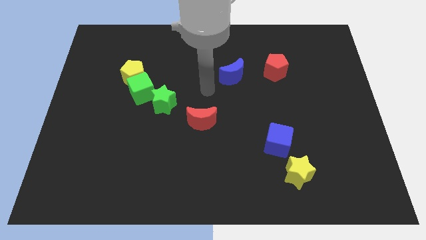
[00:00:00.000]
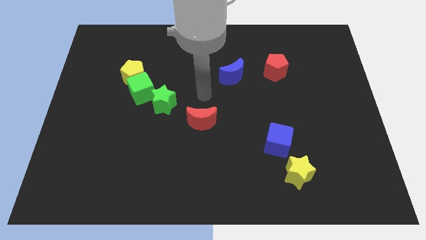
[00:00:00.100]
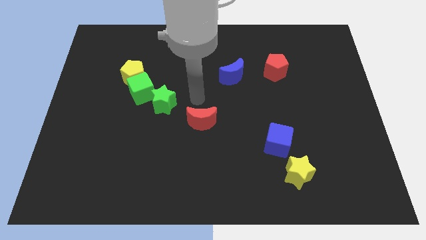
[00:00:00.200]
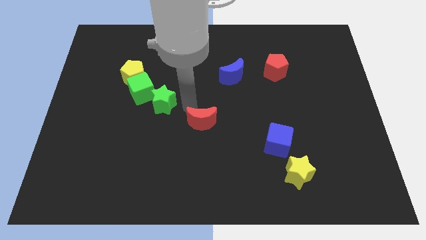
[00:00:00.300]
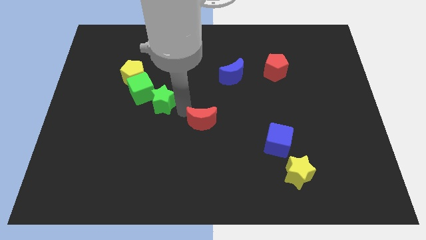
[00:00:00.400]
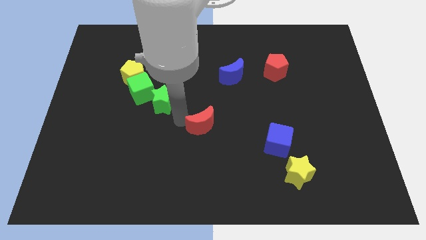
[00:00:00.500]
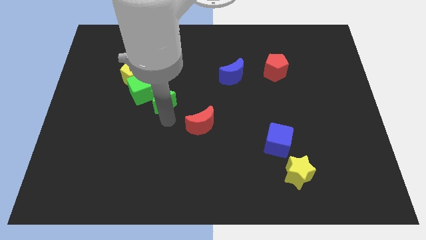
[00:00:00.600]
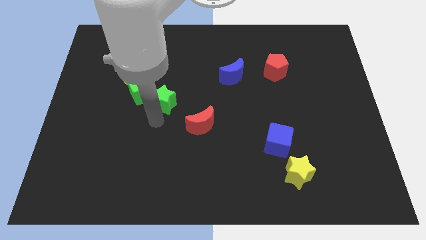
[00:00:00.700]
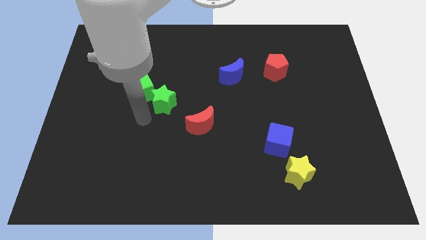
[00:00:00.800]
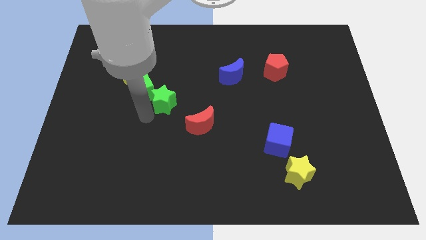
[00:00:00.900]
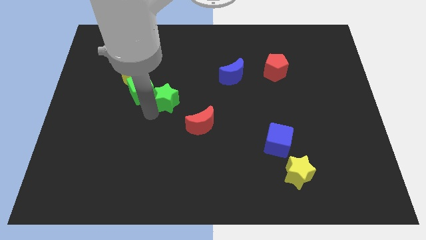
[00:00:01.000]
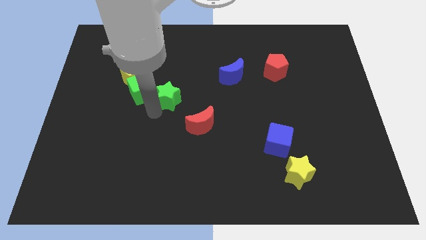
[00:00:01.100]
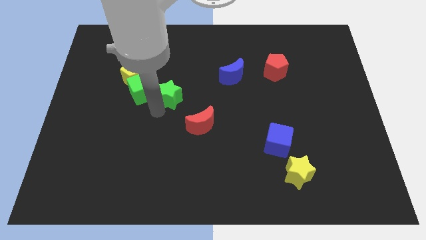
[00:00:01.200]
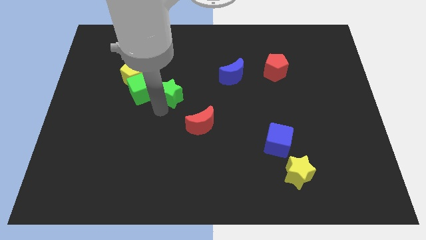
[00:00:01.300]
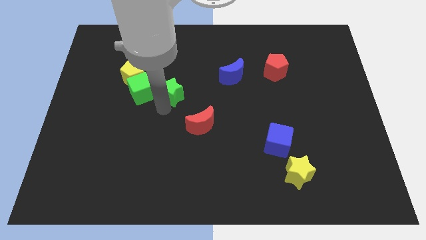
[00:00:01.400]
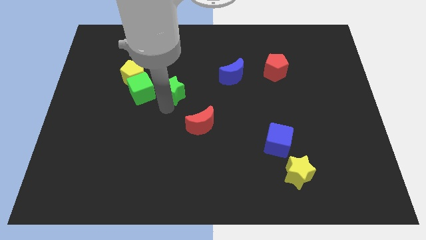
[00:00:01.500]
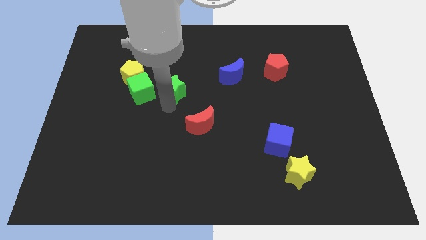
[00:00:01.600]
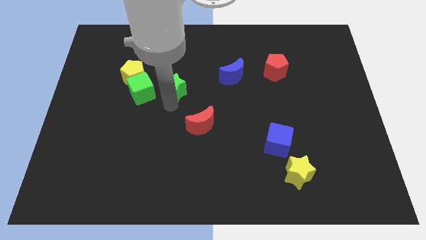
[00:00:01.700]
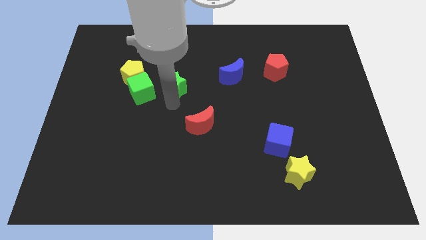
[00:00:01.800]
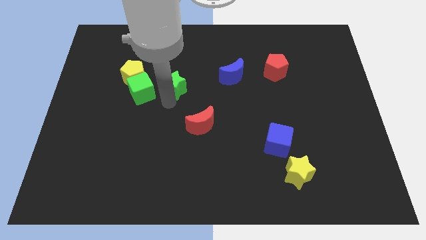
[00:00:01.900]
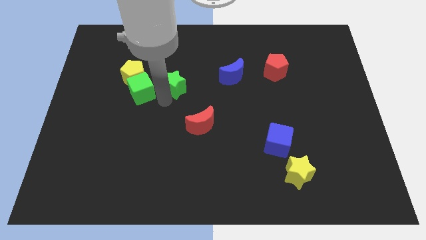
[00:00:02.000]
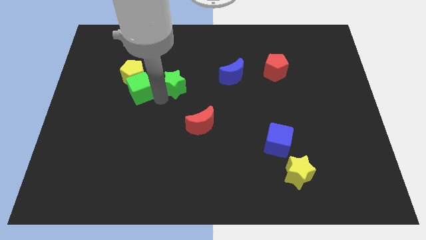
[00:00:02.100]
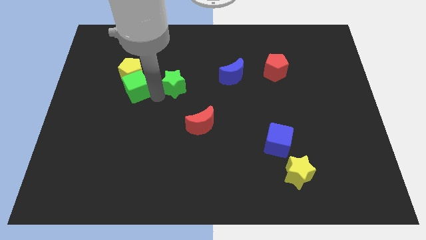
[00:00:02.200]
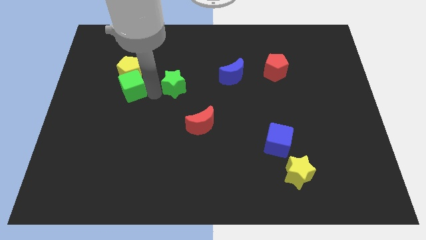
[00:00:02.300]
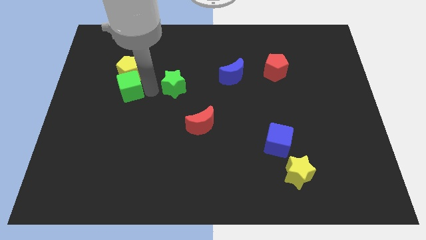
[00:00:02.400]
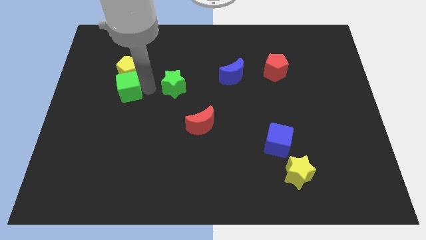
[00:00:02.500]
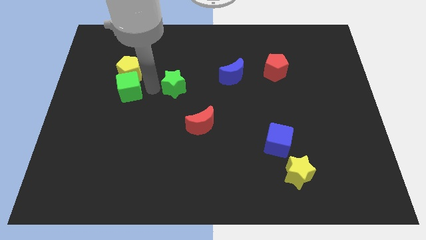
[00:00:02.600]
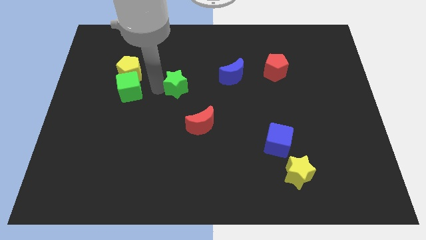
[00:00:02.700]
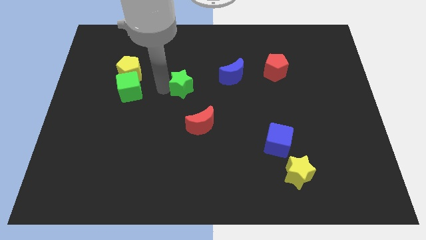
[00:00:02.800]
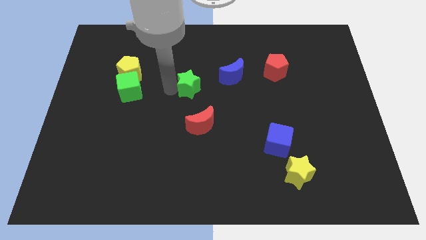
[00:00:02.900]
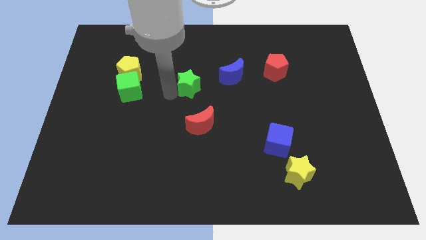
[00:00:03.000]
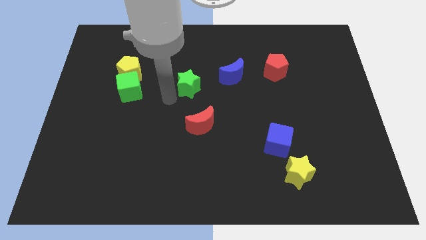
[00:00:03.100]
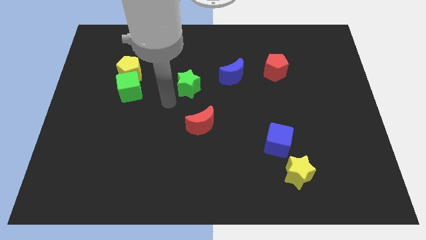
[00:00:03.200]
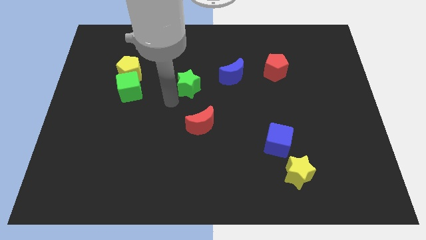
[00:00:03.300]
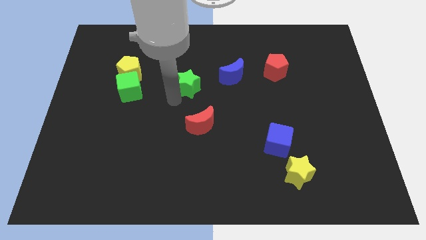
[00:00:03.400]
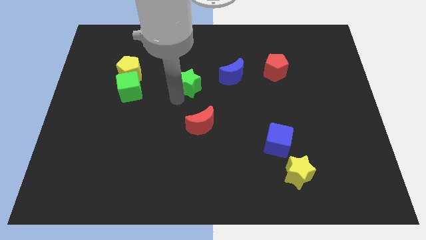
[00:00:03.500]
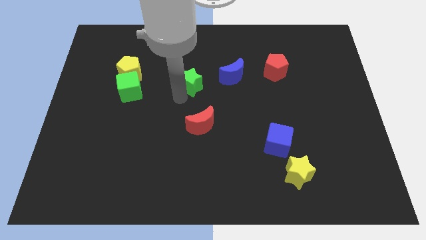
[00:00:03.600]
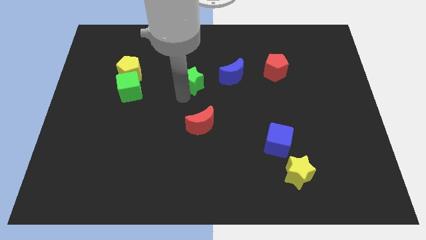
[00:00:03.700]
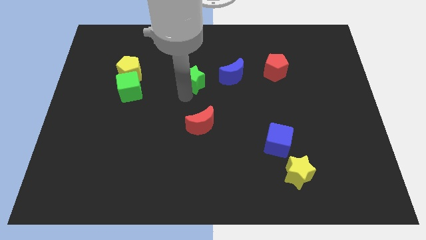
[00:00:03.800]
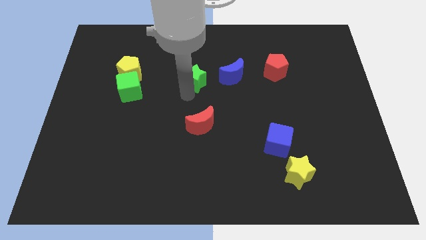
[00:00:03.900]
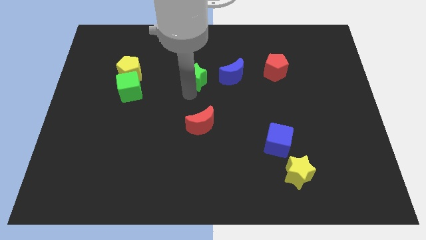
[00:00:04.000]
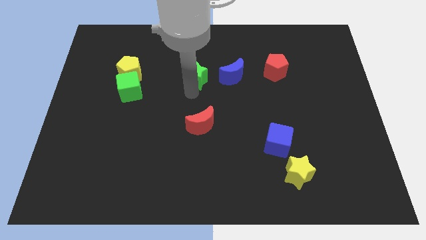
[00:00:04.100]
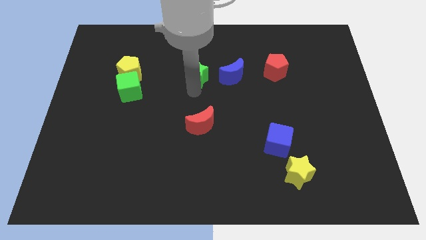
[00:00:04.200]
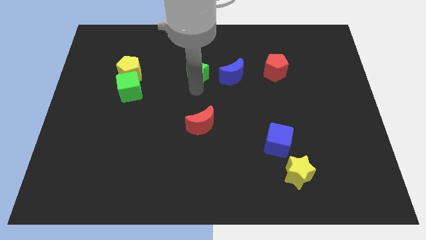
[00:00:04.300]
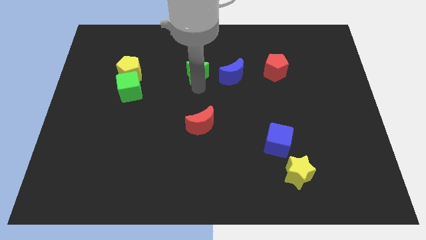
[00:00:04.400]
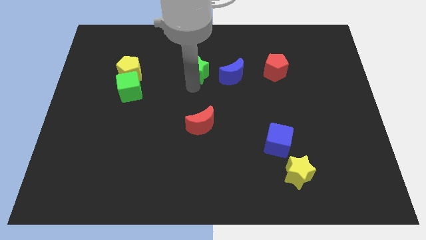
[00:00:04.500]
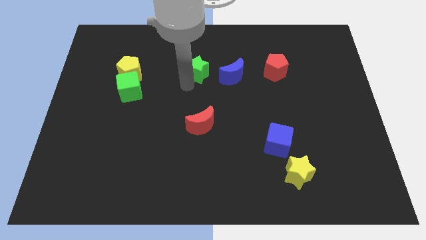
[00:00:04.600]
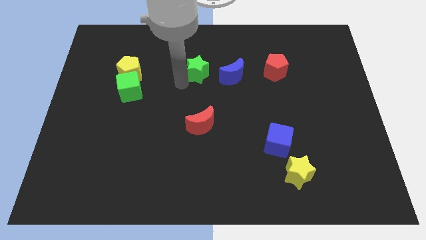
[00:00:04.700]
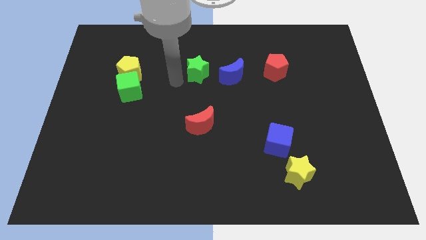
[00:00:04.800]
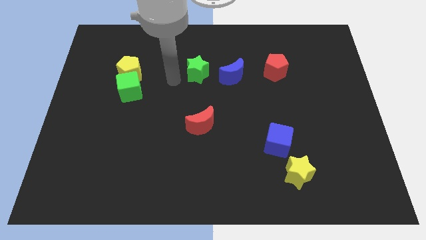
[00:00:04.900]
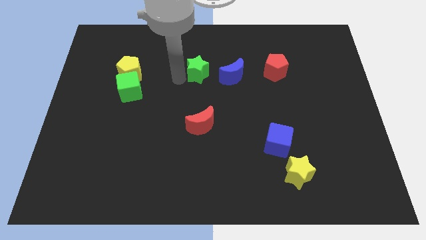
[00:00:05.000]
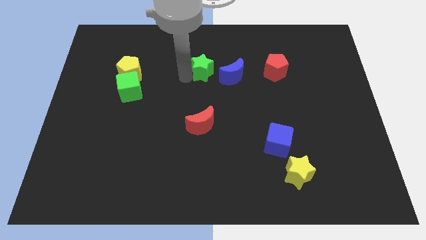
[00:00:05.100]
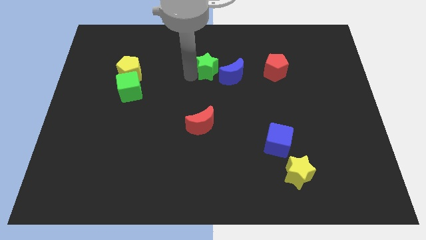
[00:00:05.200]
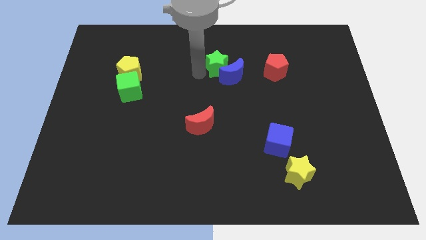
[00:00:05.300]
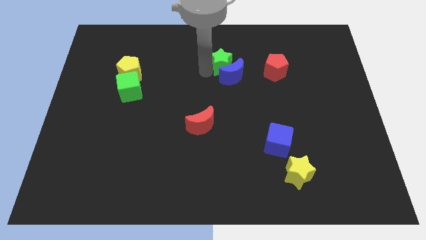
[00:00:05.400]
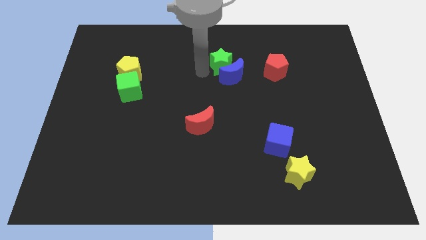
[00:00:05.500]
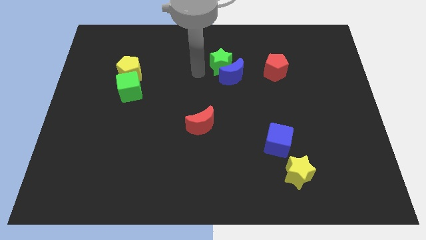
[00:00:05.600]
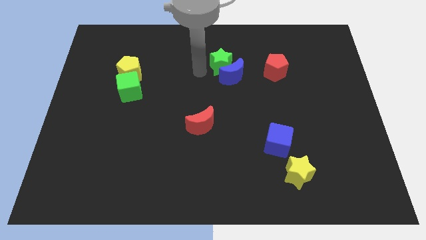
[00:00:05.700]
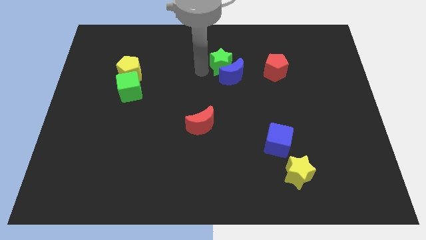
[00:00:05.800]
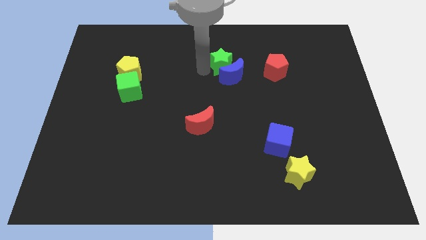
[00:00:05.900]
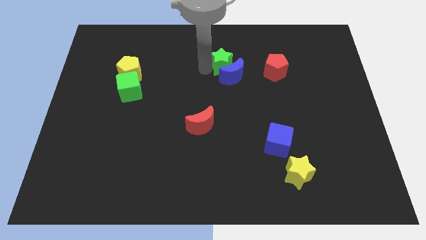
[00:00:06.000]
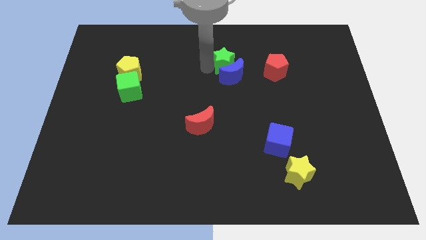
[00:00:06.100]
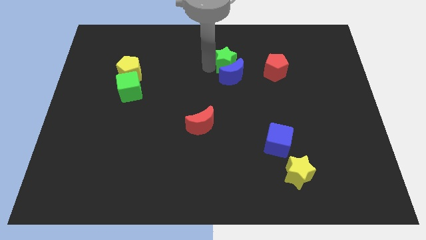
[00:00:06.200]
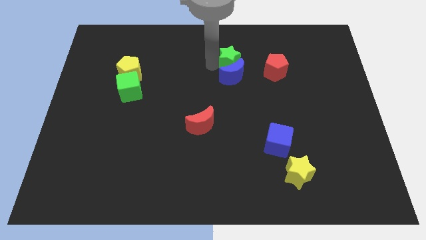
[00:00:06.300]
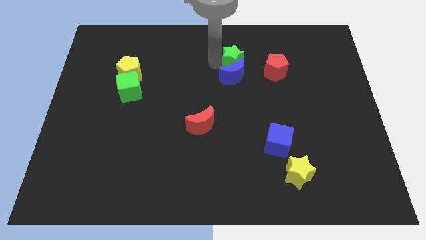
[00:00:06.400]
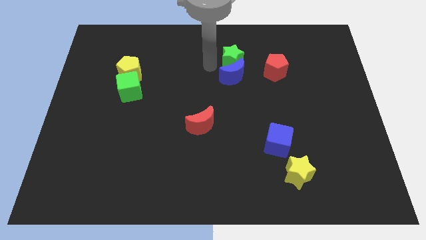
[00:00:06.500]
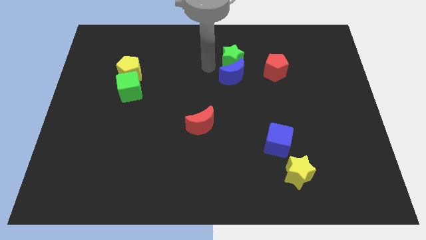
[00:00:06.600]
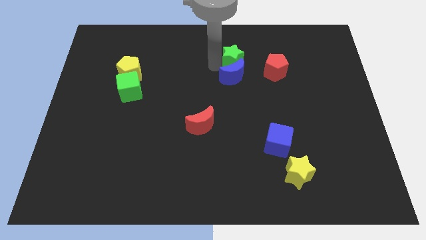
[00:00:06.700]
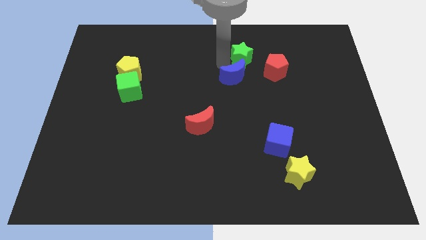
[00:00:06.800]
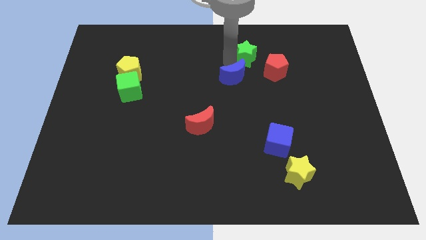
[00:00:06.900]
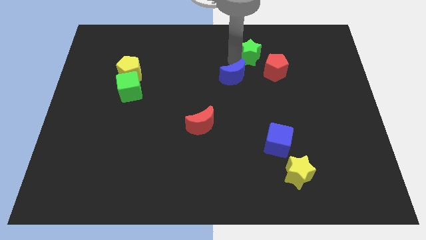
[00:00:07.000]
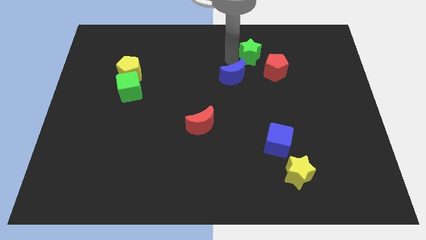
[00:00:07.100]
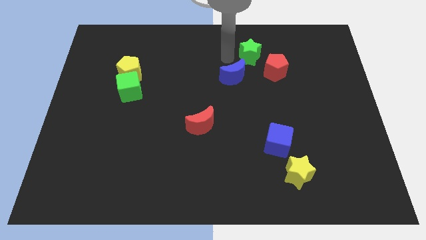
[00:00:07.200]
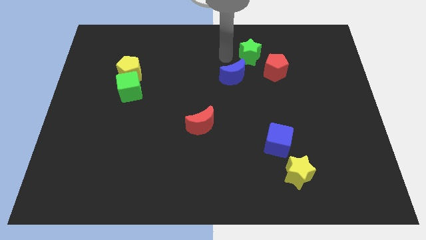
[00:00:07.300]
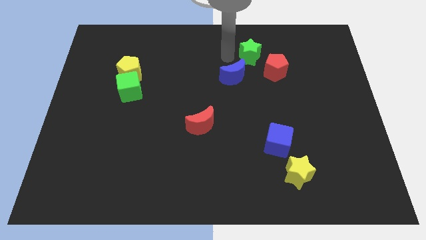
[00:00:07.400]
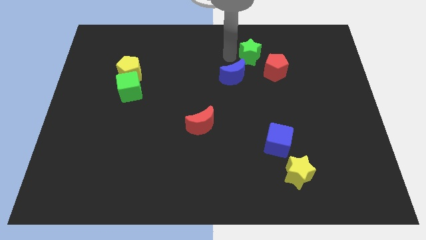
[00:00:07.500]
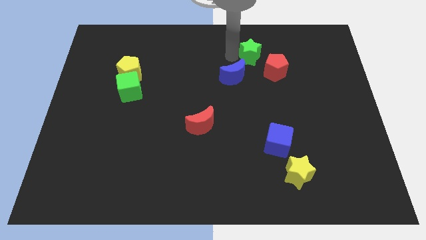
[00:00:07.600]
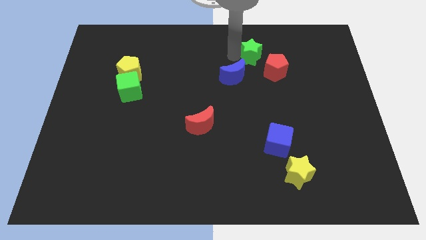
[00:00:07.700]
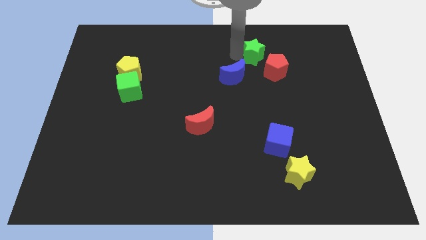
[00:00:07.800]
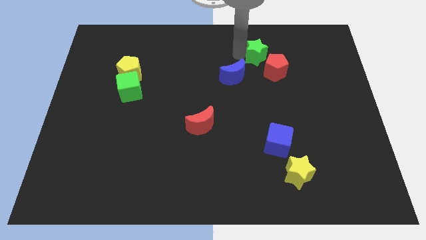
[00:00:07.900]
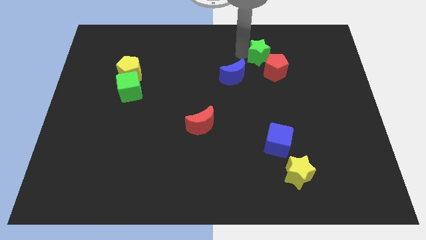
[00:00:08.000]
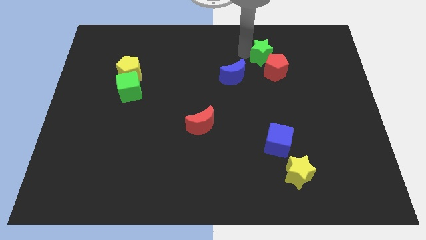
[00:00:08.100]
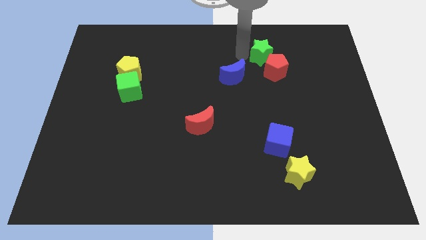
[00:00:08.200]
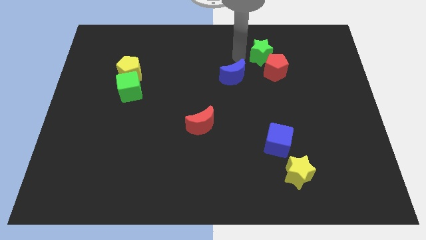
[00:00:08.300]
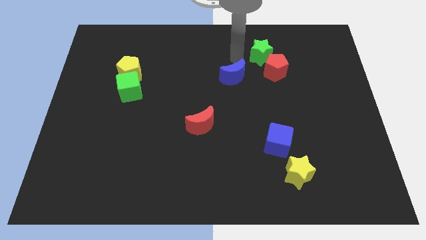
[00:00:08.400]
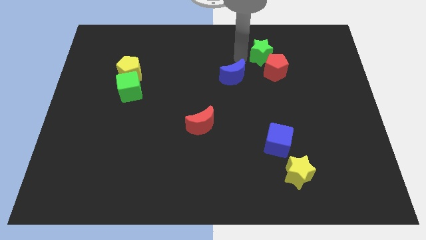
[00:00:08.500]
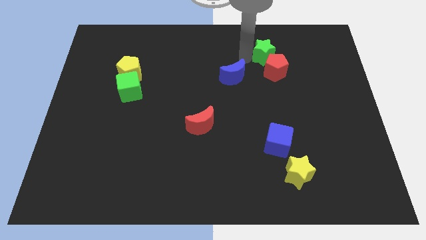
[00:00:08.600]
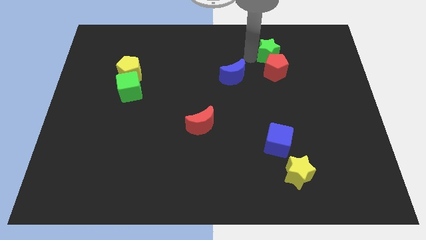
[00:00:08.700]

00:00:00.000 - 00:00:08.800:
push the green star to the top right of the red pentagon
